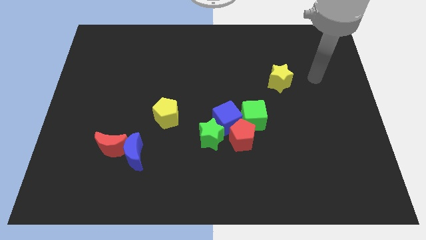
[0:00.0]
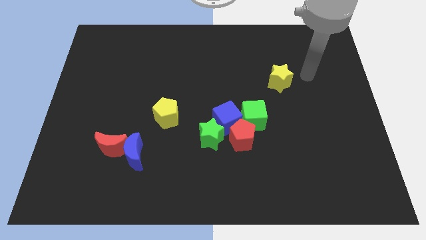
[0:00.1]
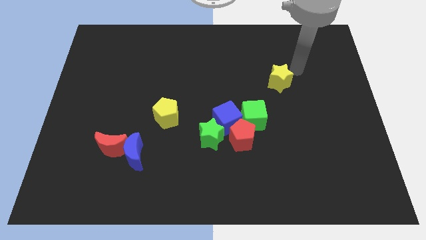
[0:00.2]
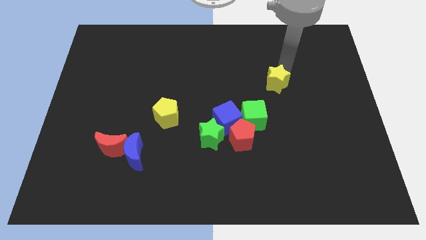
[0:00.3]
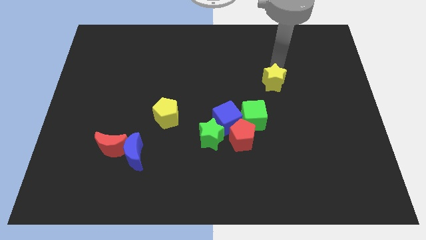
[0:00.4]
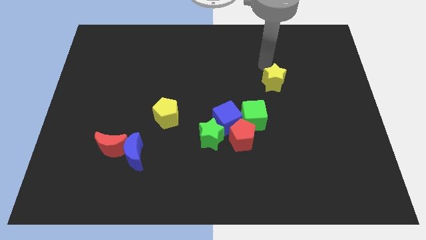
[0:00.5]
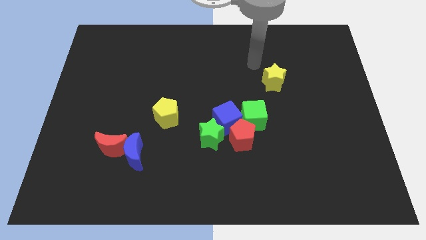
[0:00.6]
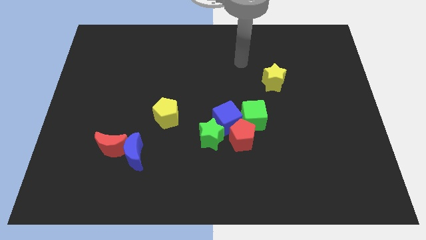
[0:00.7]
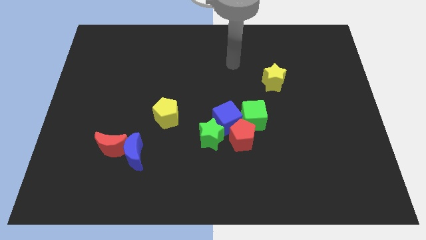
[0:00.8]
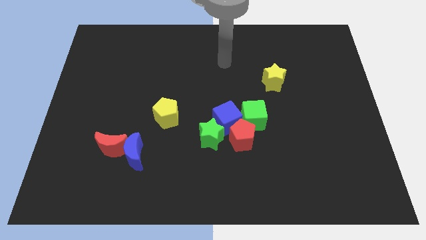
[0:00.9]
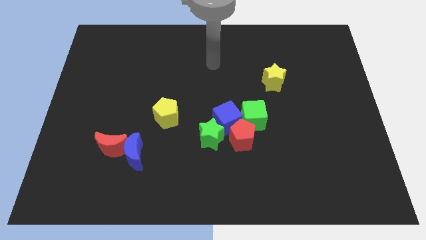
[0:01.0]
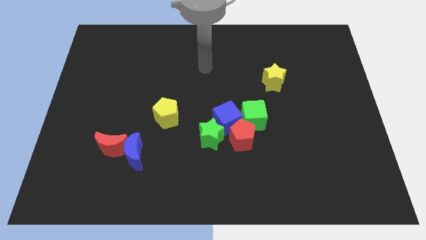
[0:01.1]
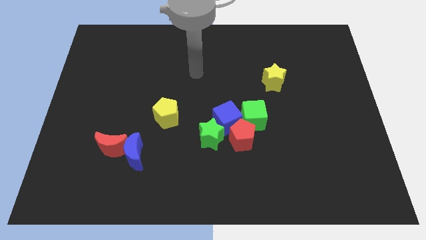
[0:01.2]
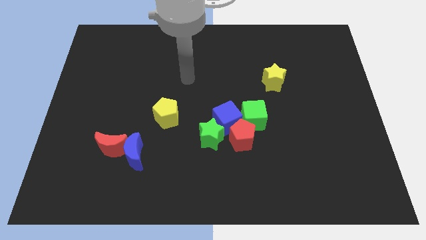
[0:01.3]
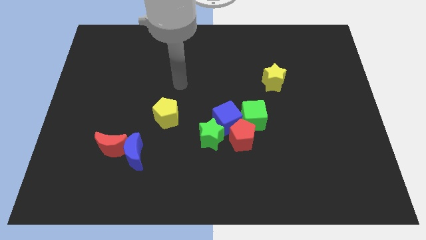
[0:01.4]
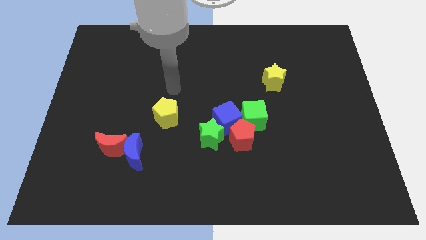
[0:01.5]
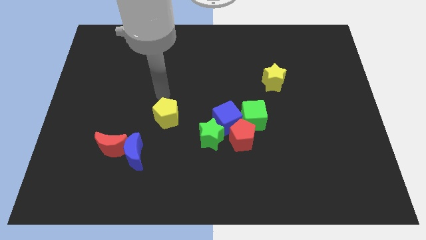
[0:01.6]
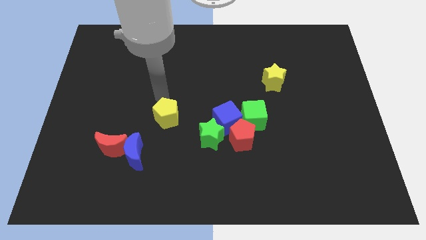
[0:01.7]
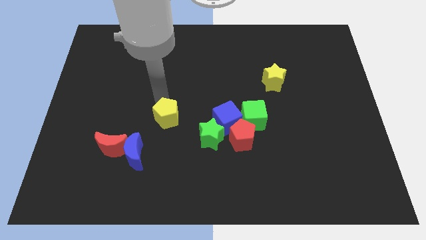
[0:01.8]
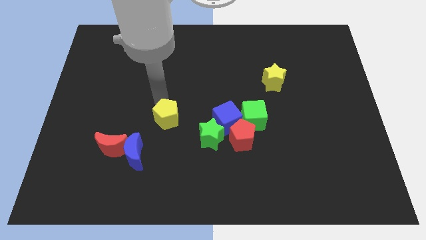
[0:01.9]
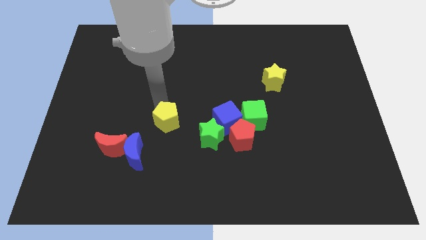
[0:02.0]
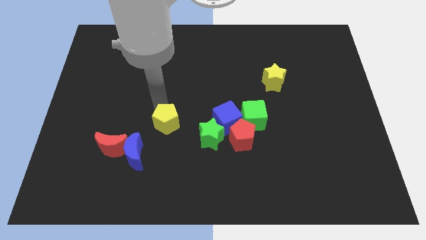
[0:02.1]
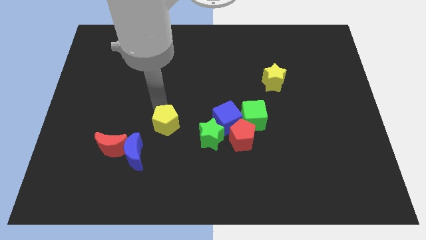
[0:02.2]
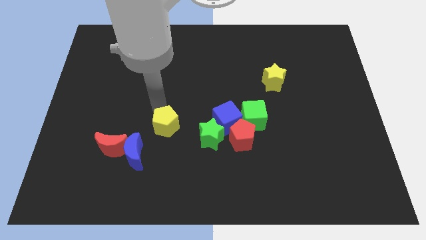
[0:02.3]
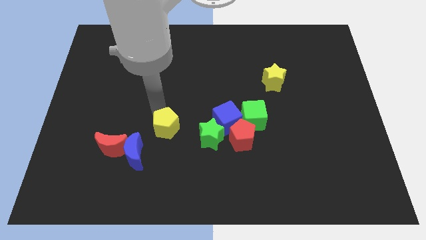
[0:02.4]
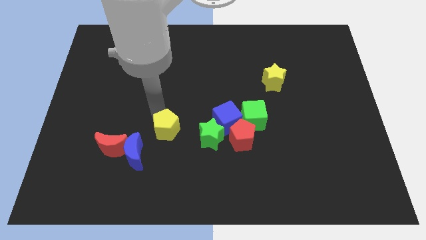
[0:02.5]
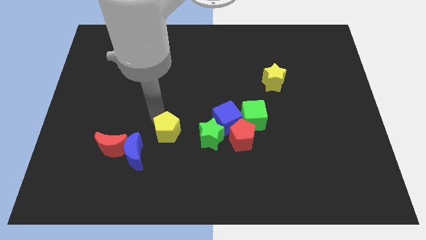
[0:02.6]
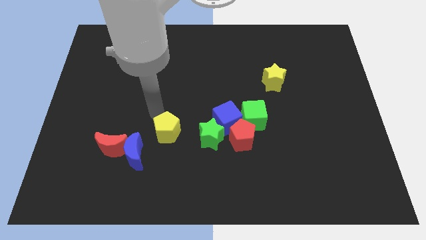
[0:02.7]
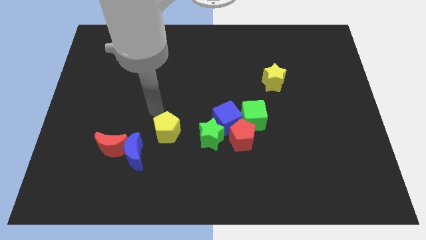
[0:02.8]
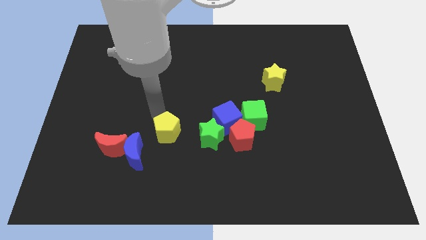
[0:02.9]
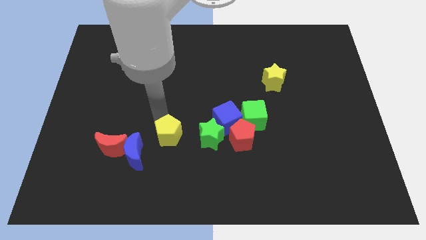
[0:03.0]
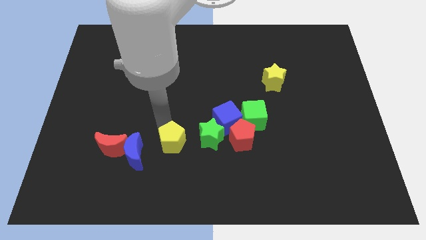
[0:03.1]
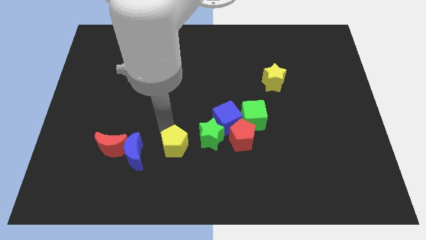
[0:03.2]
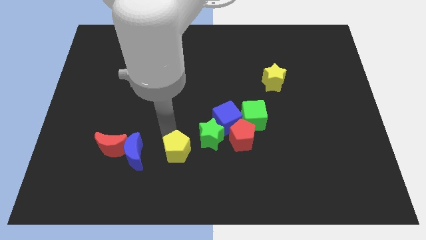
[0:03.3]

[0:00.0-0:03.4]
move the yellow pentagon diagonally downwards and right a little

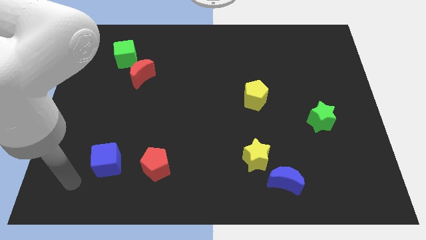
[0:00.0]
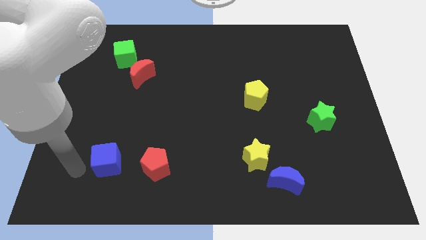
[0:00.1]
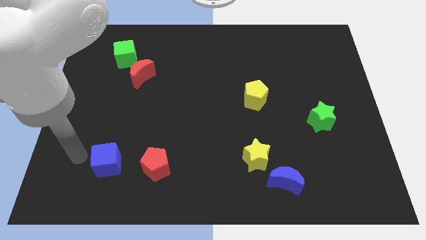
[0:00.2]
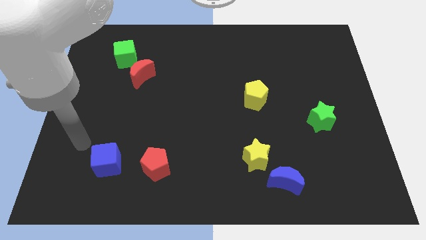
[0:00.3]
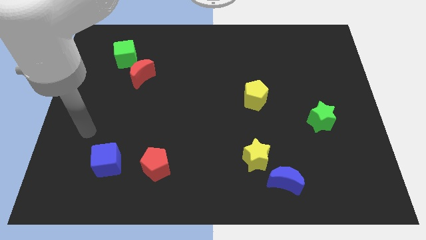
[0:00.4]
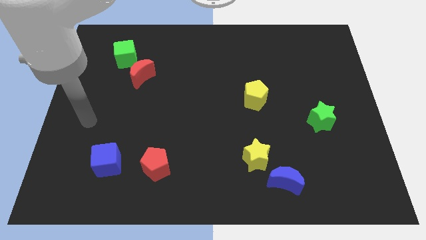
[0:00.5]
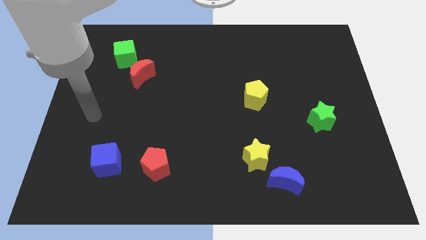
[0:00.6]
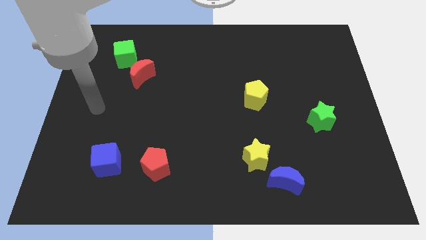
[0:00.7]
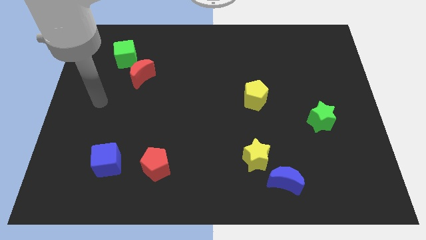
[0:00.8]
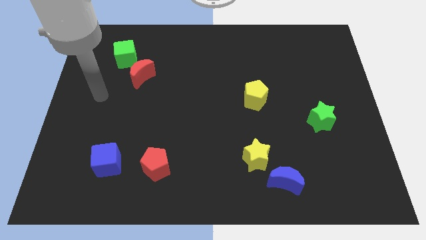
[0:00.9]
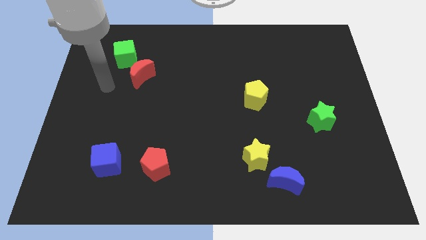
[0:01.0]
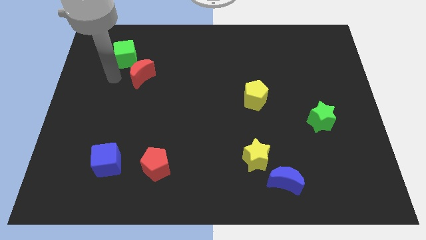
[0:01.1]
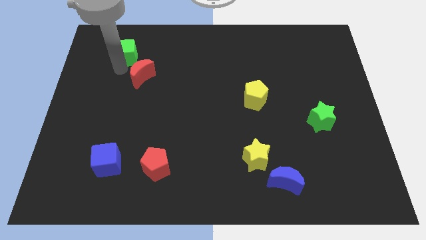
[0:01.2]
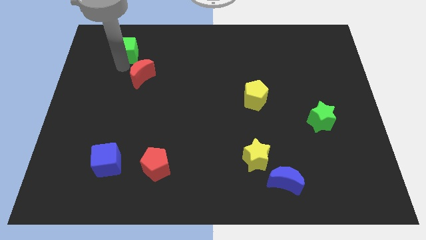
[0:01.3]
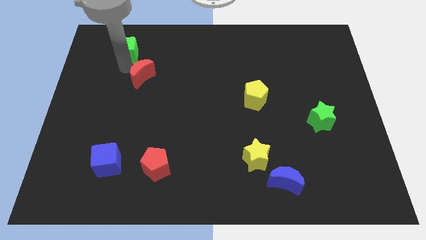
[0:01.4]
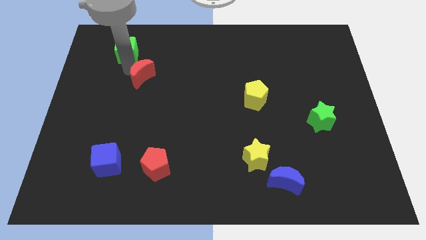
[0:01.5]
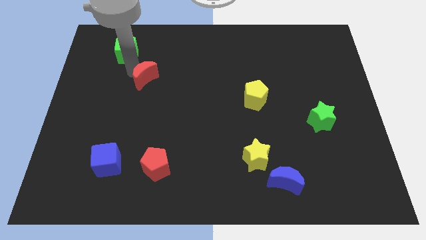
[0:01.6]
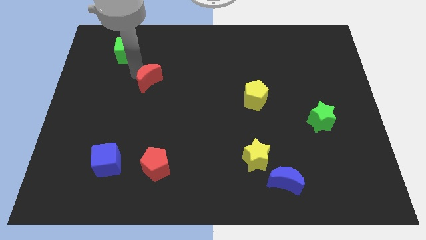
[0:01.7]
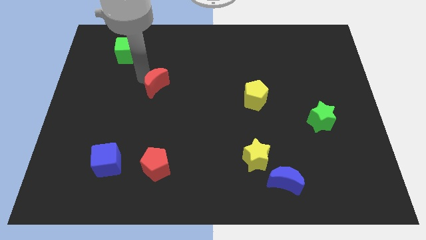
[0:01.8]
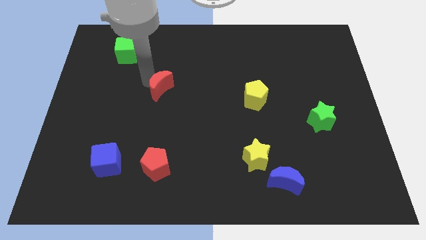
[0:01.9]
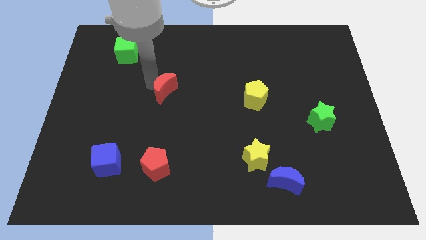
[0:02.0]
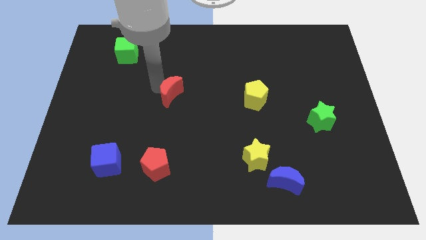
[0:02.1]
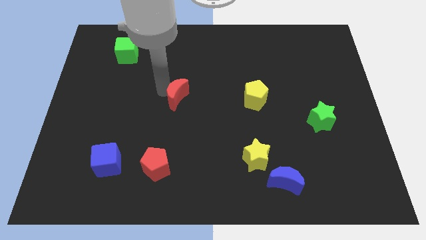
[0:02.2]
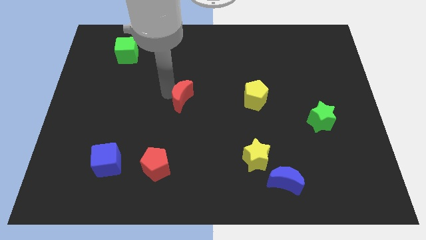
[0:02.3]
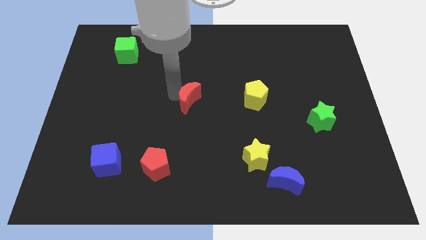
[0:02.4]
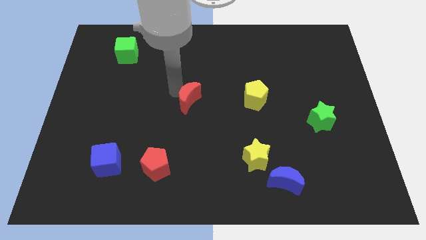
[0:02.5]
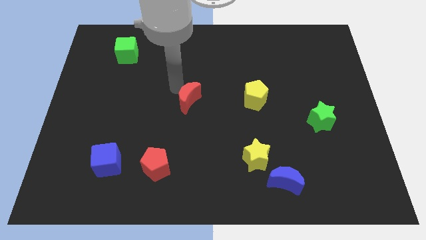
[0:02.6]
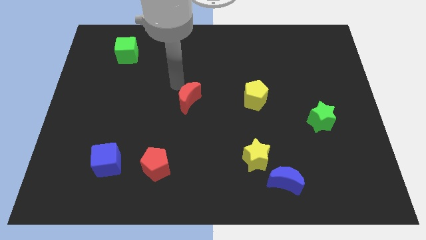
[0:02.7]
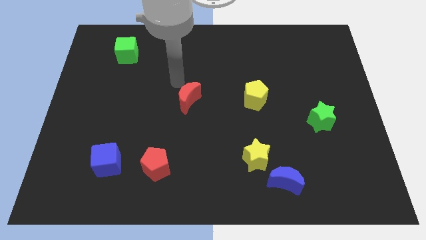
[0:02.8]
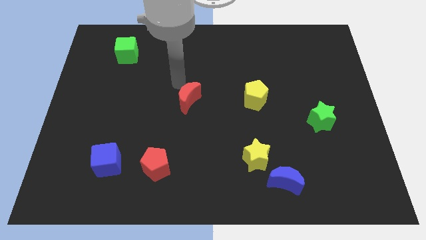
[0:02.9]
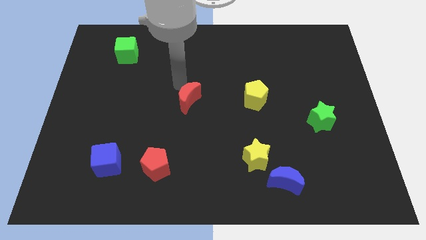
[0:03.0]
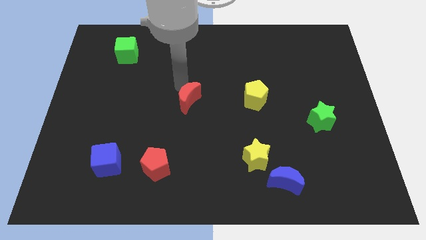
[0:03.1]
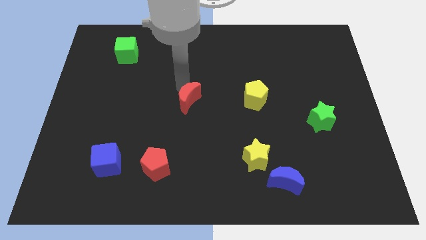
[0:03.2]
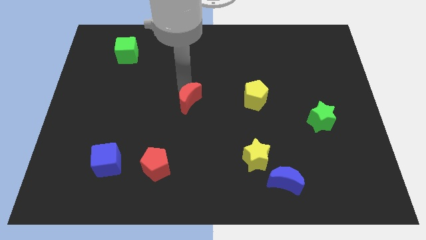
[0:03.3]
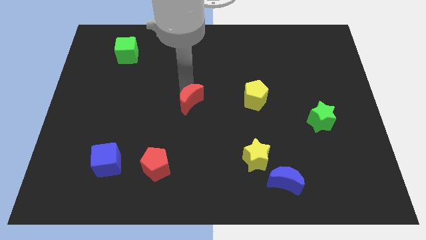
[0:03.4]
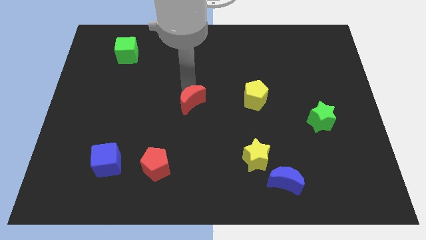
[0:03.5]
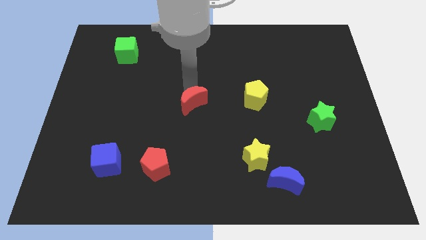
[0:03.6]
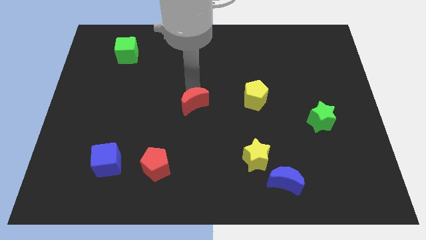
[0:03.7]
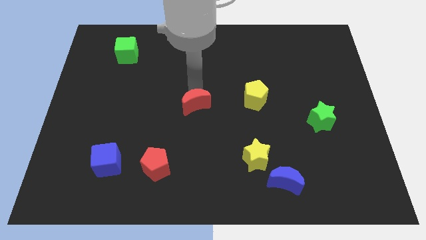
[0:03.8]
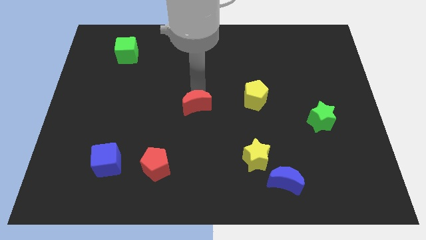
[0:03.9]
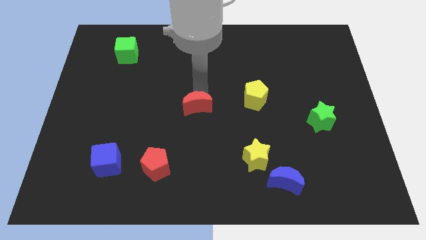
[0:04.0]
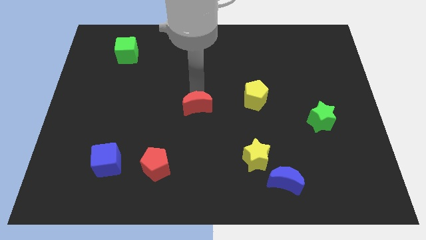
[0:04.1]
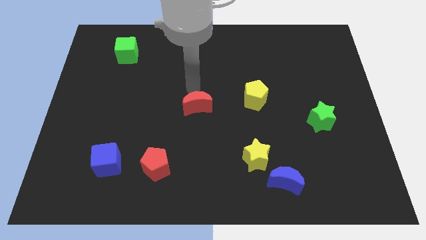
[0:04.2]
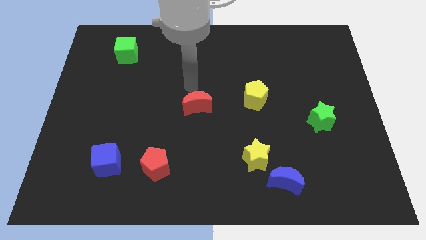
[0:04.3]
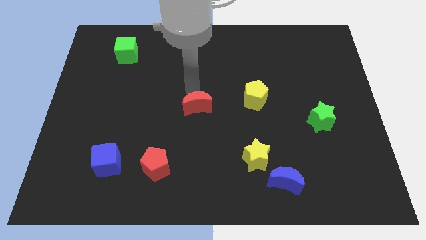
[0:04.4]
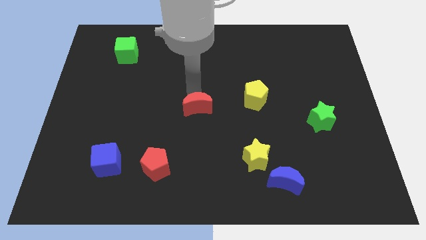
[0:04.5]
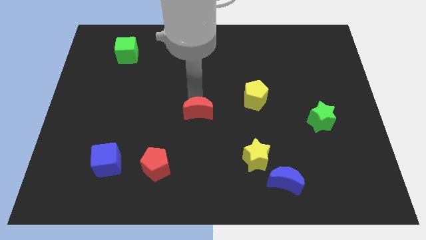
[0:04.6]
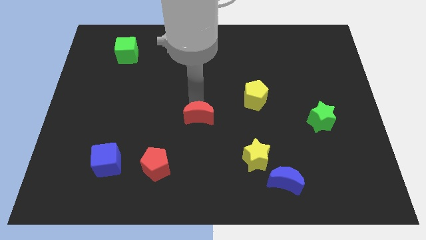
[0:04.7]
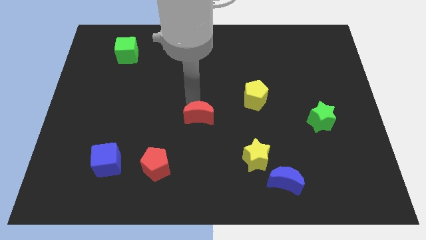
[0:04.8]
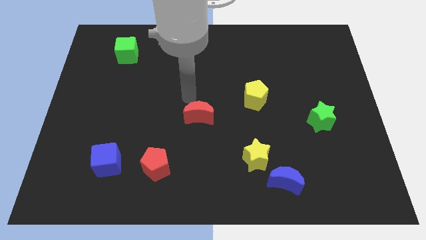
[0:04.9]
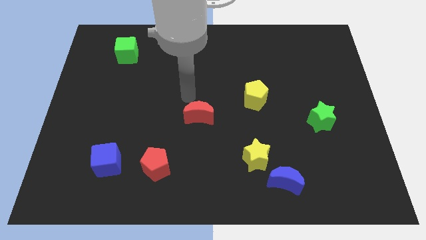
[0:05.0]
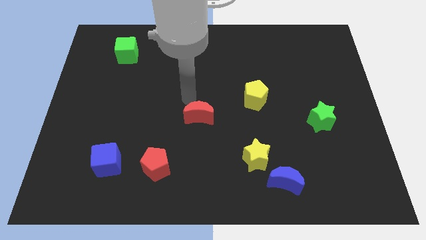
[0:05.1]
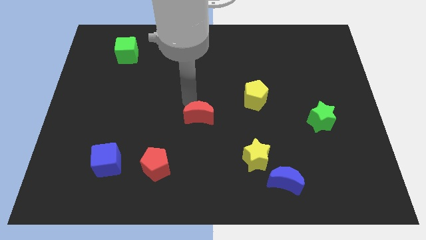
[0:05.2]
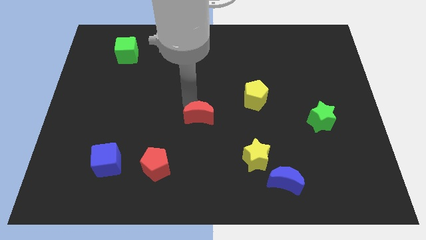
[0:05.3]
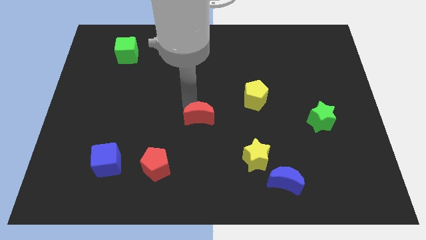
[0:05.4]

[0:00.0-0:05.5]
push the red moon diagonally downwards and right
